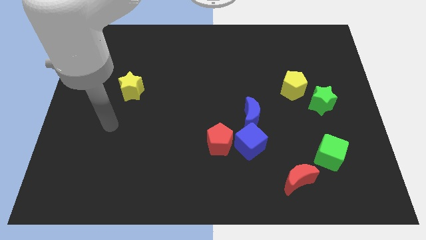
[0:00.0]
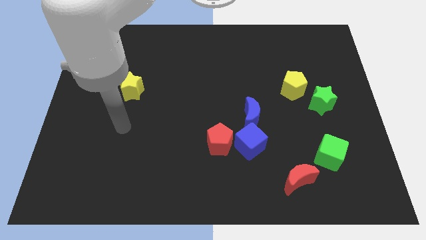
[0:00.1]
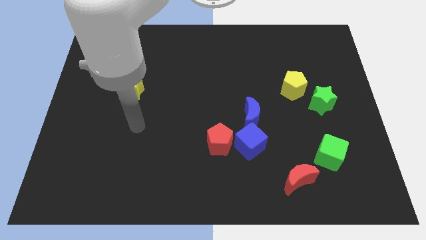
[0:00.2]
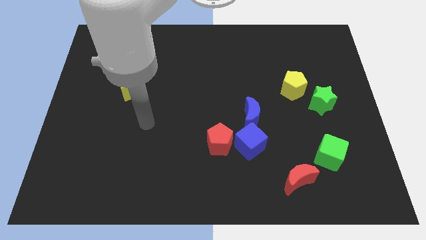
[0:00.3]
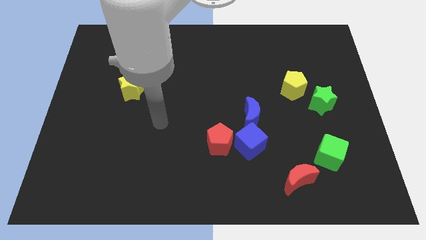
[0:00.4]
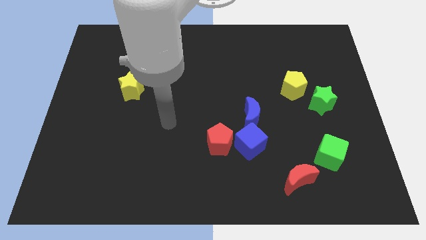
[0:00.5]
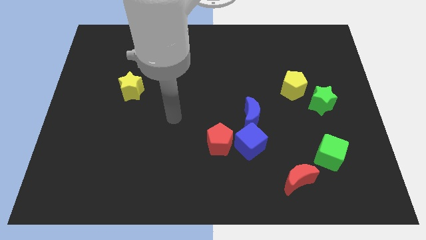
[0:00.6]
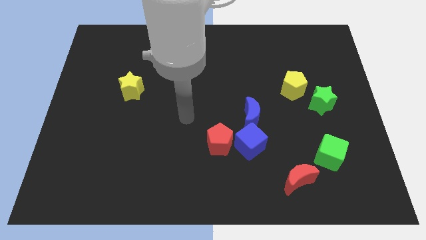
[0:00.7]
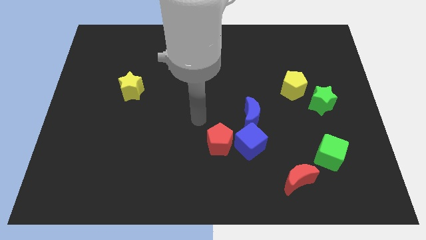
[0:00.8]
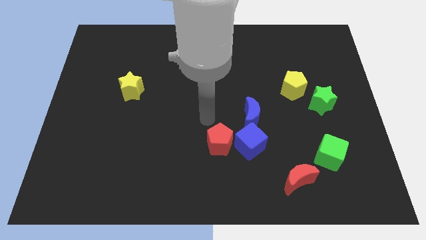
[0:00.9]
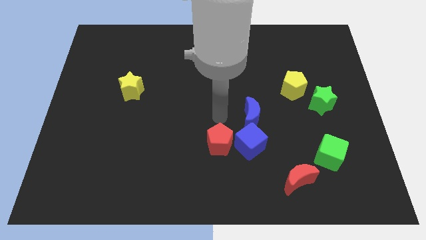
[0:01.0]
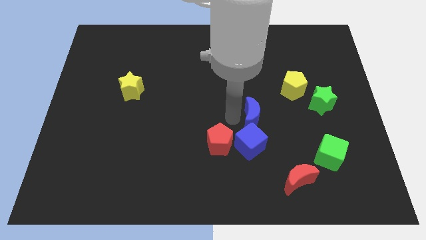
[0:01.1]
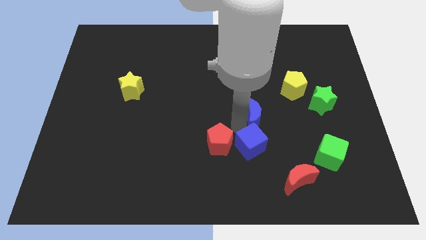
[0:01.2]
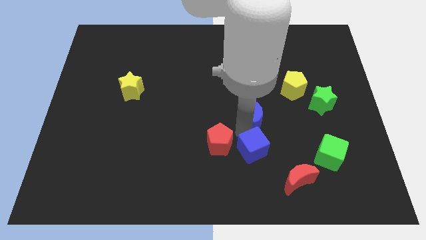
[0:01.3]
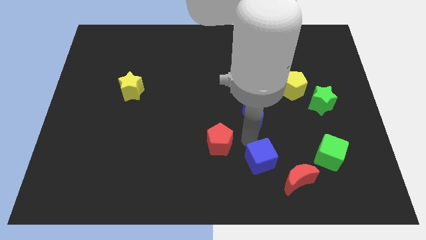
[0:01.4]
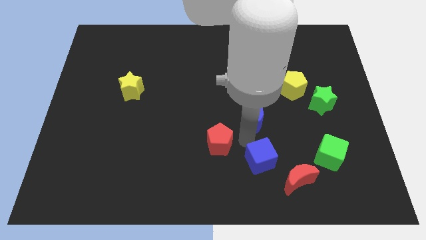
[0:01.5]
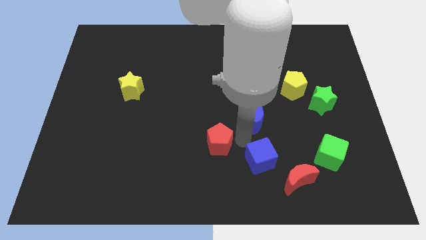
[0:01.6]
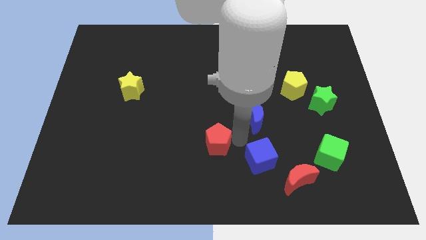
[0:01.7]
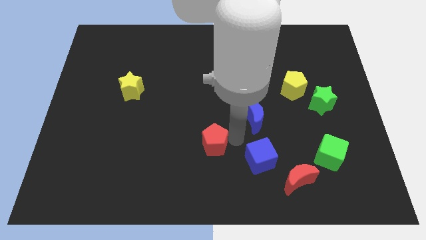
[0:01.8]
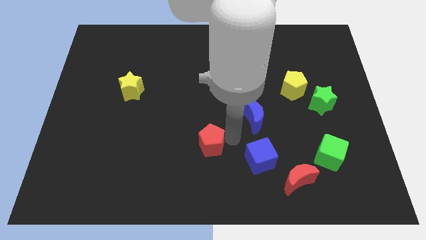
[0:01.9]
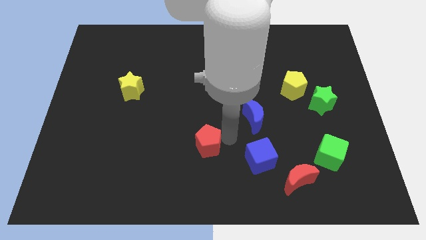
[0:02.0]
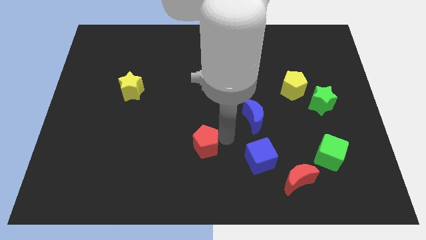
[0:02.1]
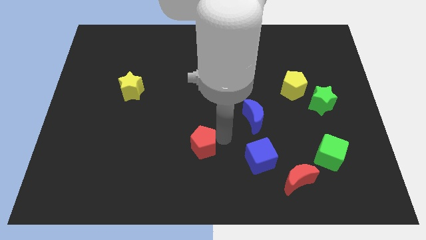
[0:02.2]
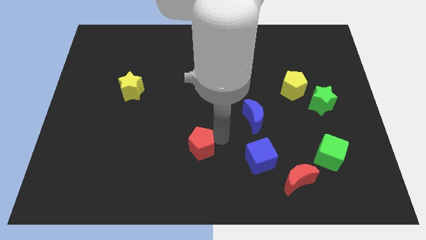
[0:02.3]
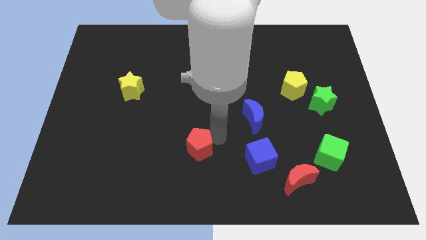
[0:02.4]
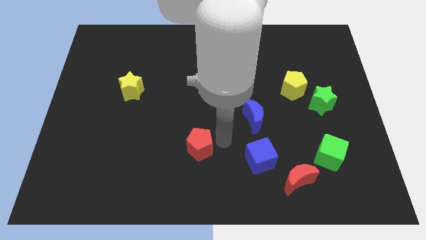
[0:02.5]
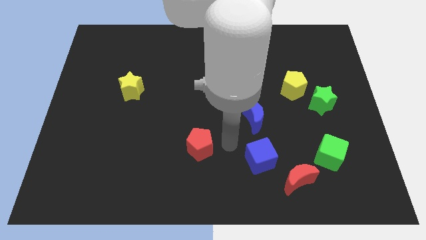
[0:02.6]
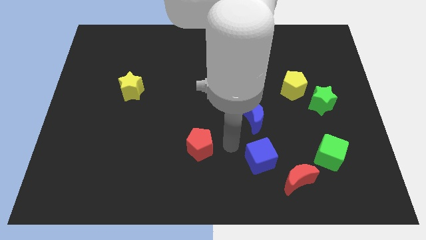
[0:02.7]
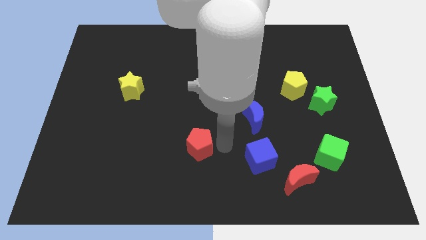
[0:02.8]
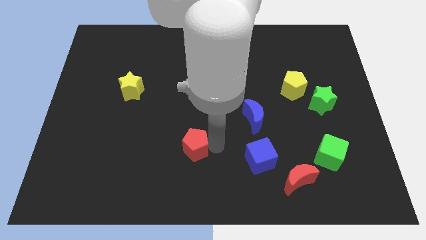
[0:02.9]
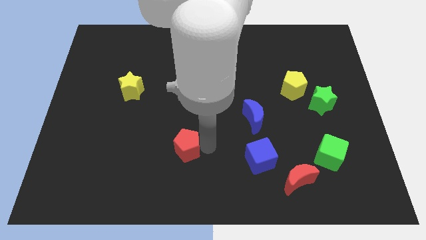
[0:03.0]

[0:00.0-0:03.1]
slide the red pentagon a little bit to the left

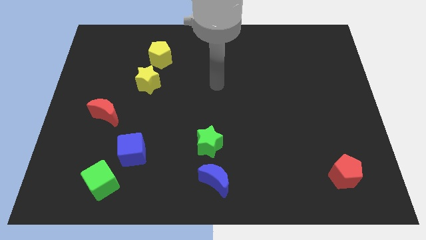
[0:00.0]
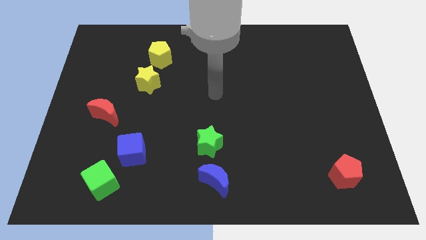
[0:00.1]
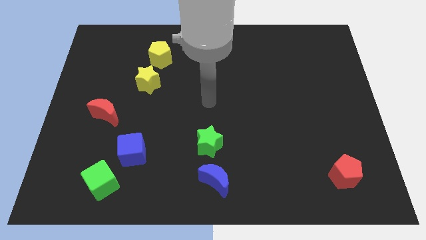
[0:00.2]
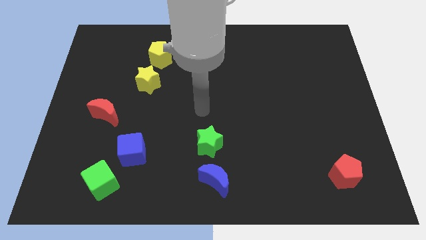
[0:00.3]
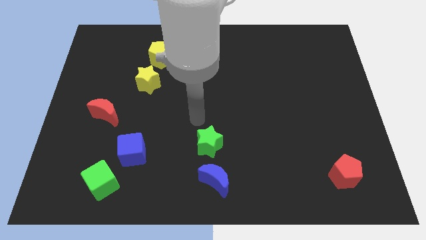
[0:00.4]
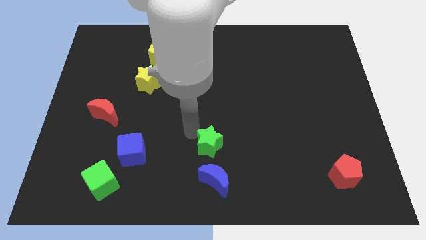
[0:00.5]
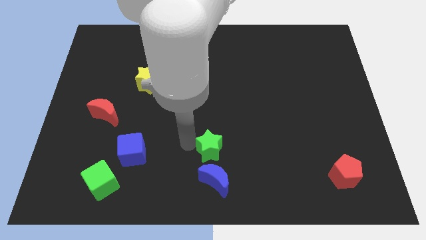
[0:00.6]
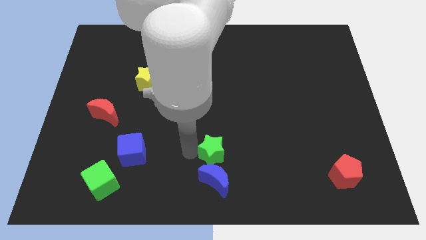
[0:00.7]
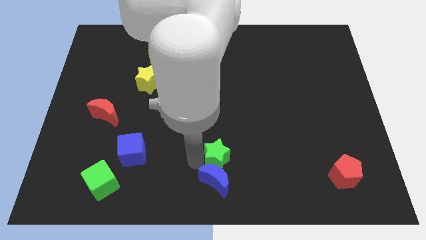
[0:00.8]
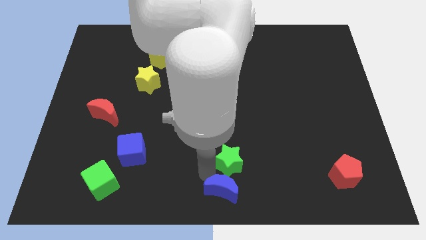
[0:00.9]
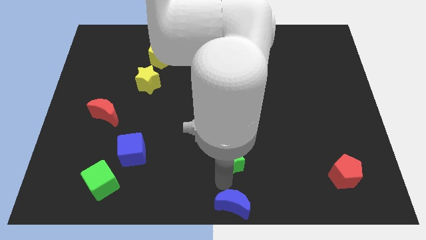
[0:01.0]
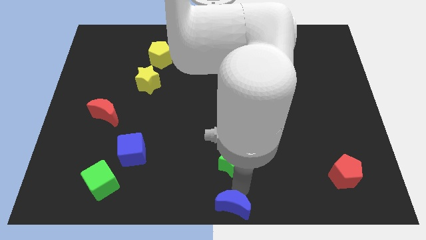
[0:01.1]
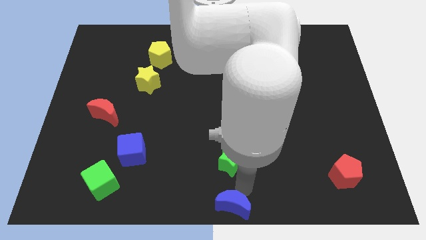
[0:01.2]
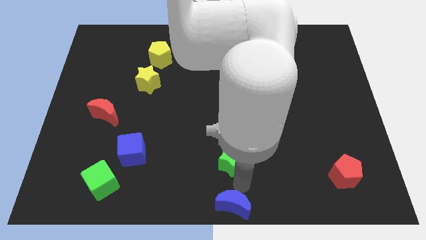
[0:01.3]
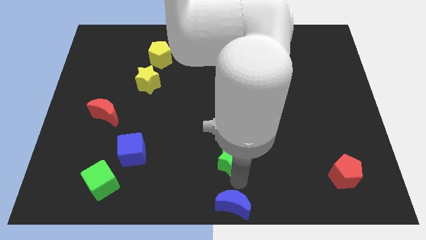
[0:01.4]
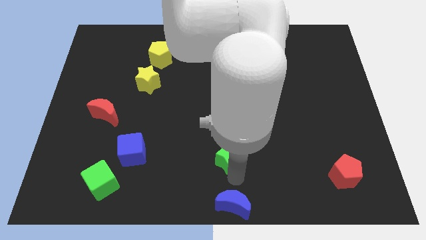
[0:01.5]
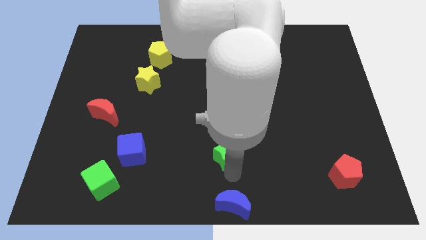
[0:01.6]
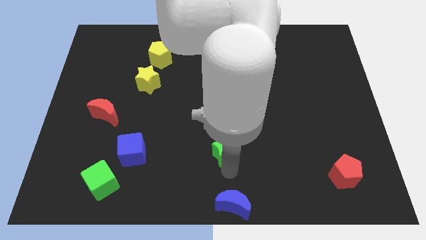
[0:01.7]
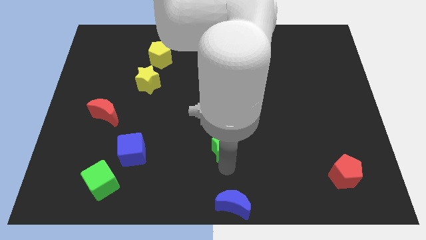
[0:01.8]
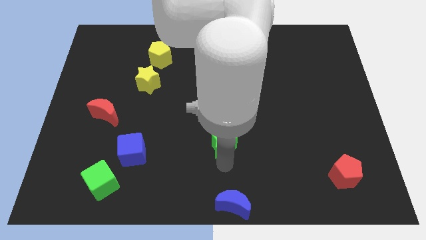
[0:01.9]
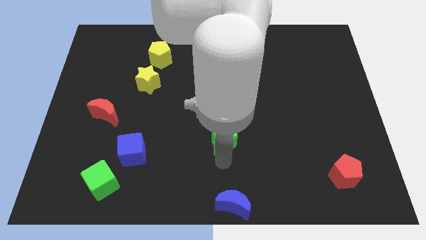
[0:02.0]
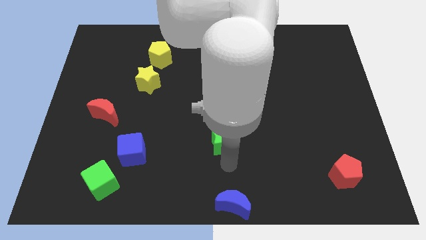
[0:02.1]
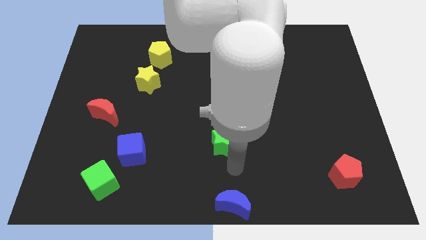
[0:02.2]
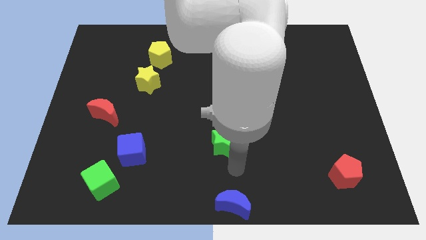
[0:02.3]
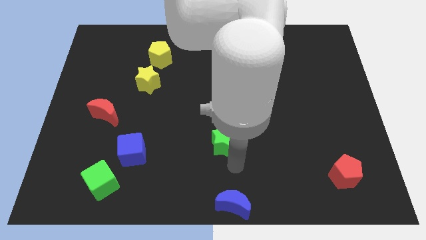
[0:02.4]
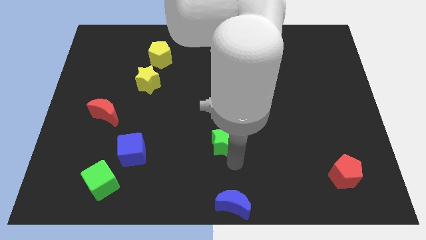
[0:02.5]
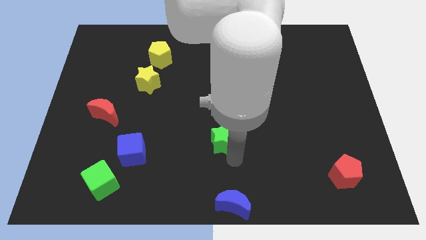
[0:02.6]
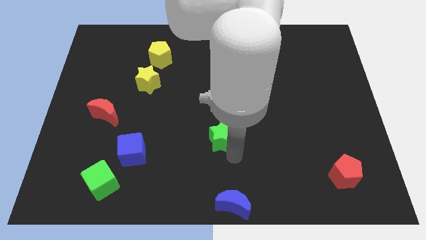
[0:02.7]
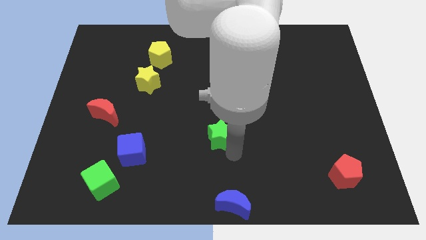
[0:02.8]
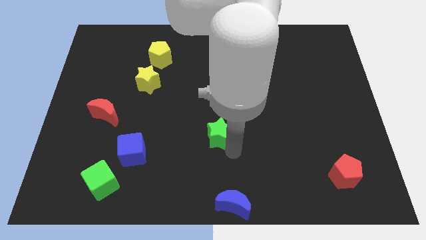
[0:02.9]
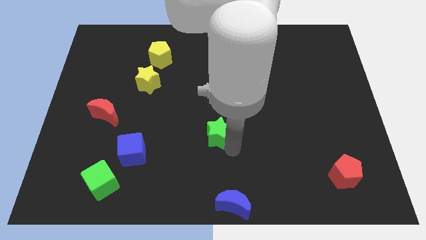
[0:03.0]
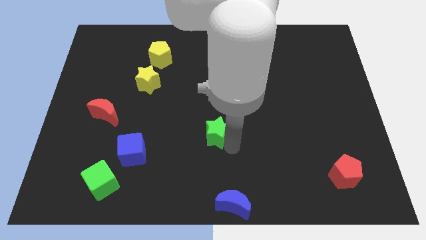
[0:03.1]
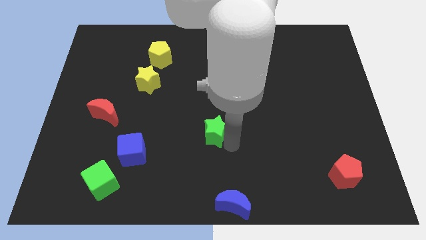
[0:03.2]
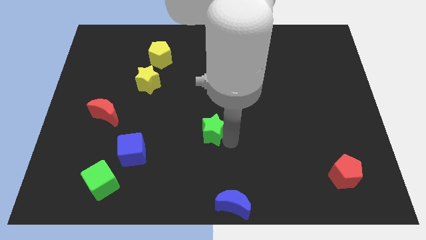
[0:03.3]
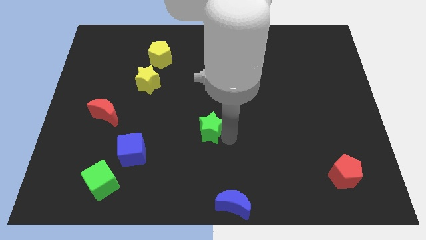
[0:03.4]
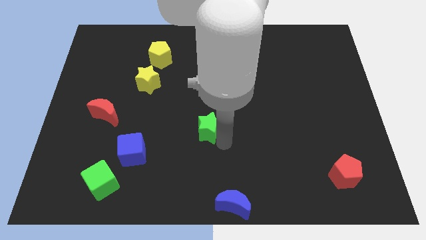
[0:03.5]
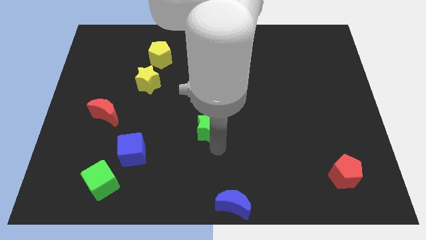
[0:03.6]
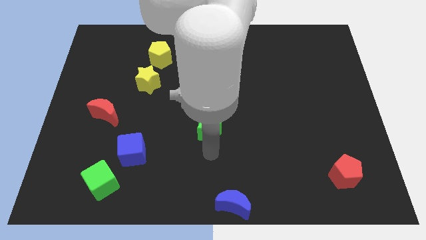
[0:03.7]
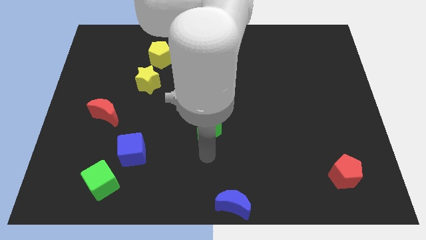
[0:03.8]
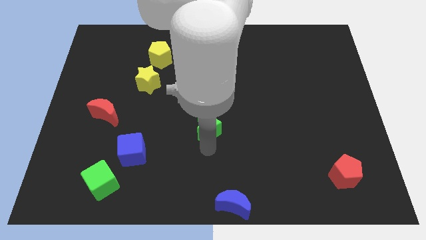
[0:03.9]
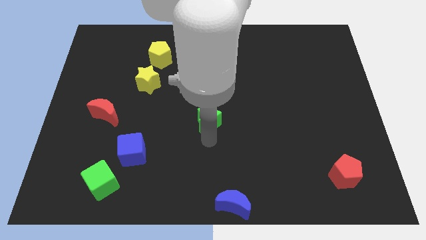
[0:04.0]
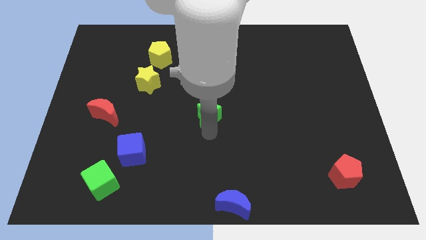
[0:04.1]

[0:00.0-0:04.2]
move the green star a little up

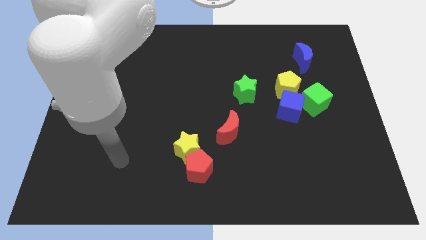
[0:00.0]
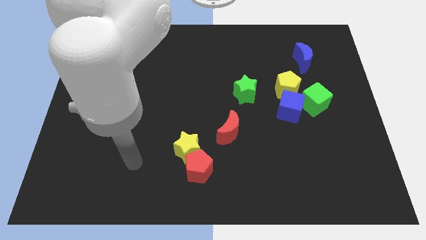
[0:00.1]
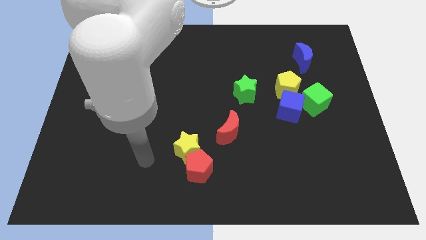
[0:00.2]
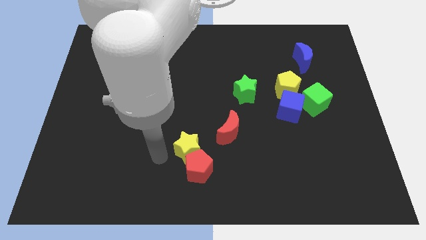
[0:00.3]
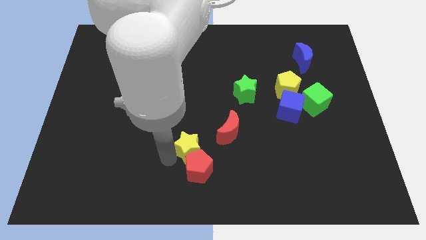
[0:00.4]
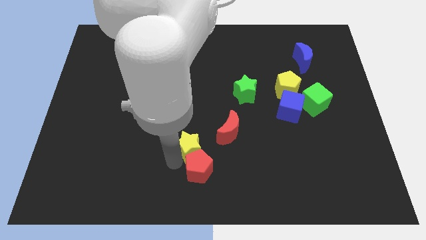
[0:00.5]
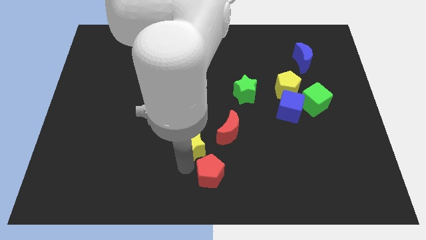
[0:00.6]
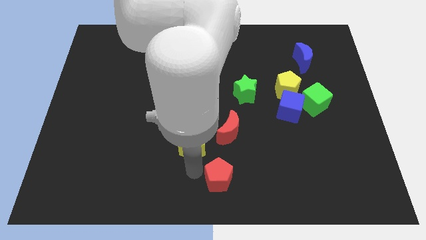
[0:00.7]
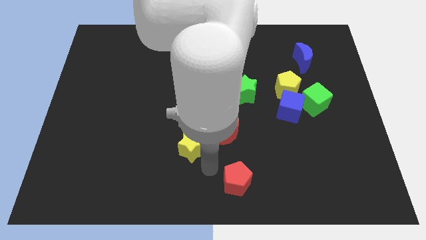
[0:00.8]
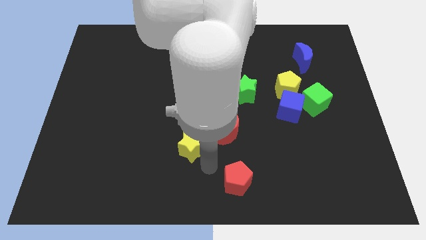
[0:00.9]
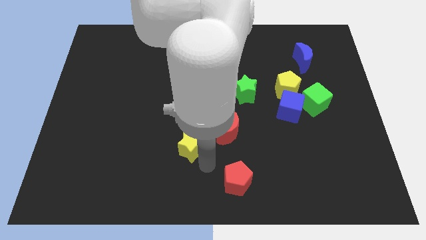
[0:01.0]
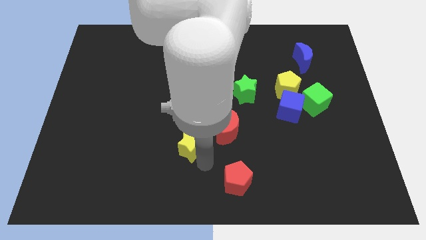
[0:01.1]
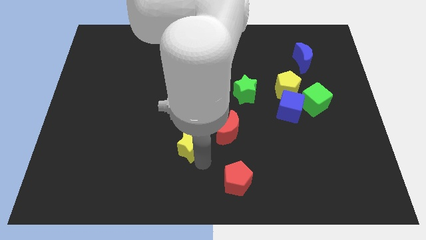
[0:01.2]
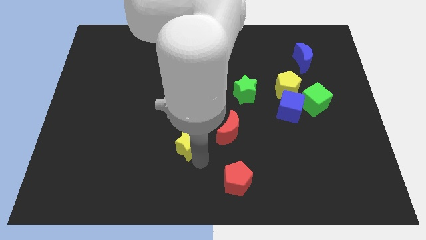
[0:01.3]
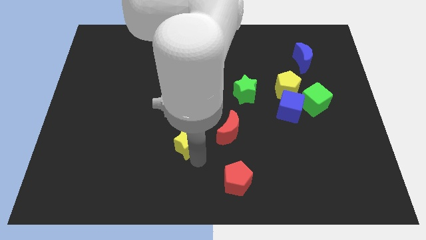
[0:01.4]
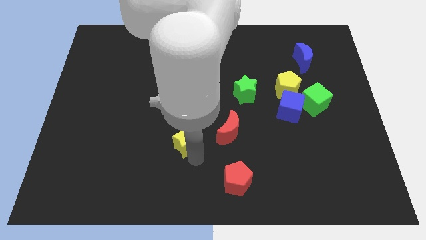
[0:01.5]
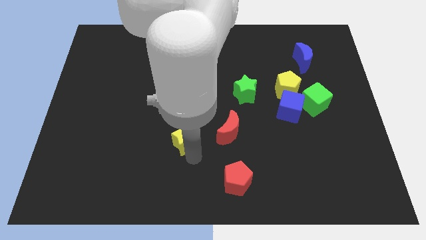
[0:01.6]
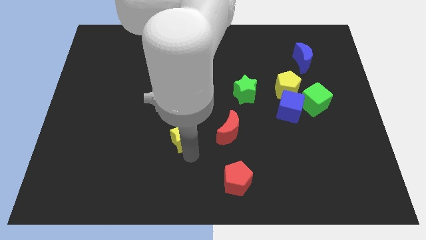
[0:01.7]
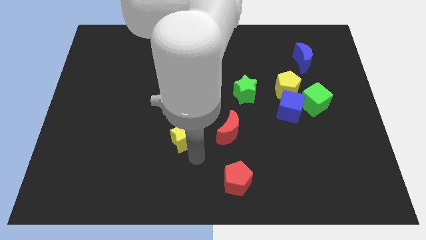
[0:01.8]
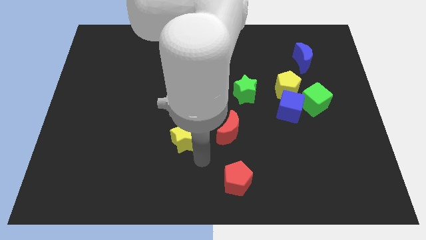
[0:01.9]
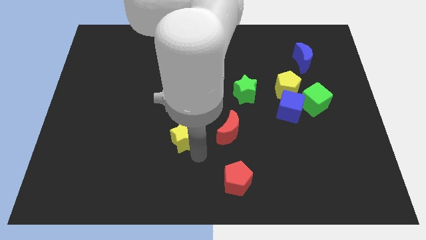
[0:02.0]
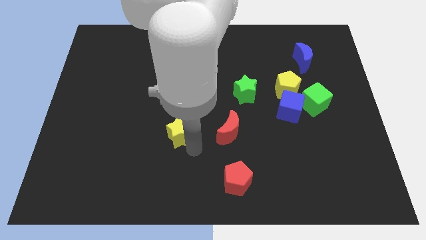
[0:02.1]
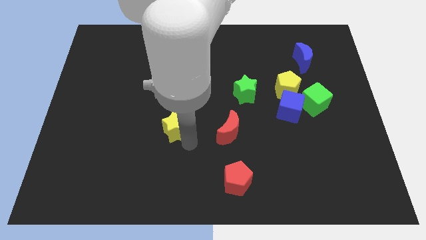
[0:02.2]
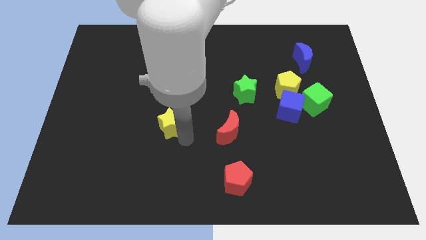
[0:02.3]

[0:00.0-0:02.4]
move the yellow star up and then to the left a little bit
